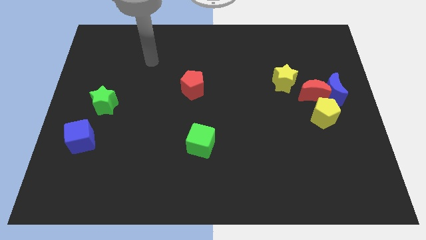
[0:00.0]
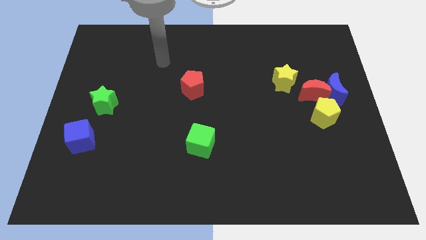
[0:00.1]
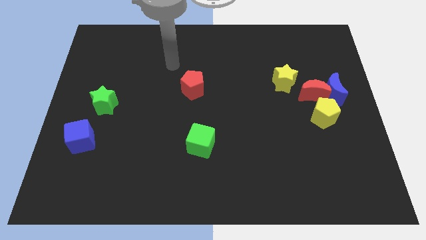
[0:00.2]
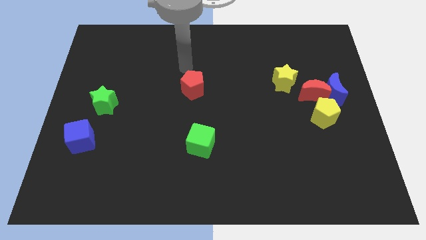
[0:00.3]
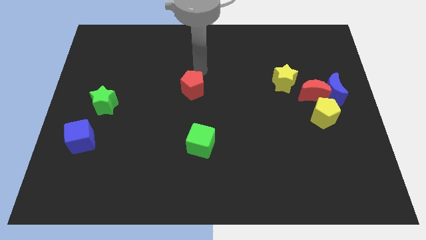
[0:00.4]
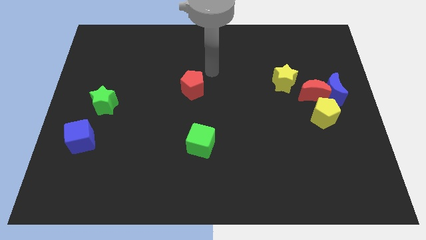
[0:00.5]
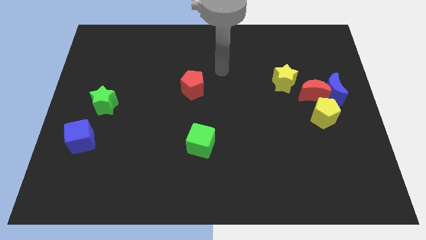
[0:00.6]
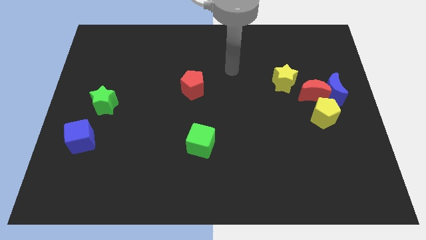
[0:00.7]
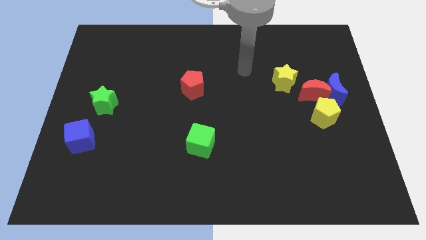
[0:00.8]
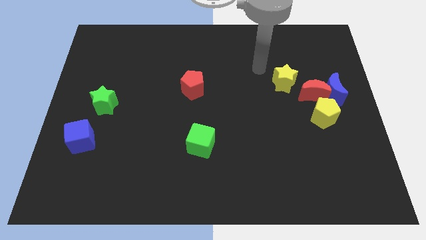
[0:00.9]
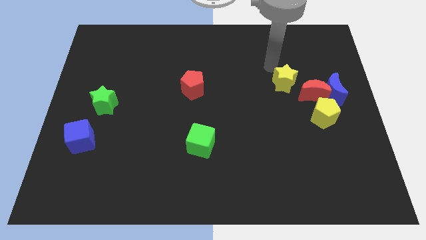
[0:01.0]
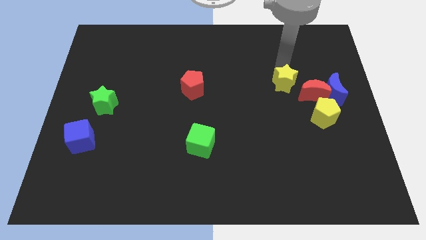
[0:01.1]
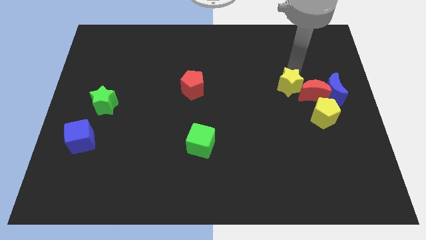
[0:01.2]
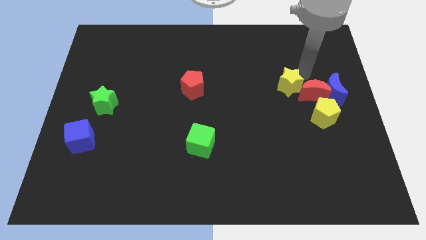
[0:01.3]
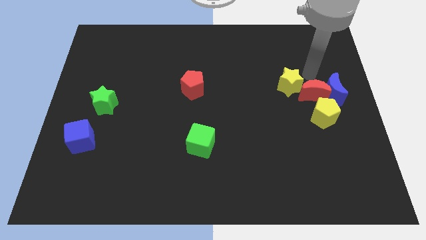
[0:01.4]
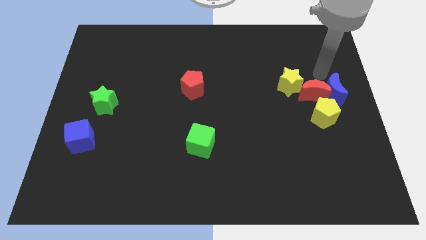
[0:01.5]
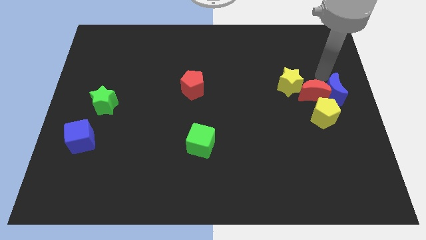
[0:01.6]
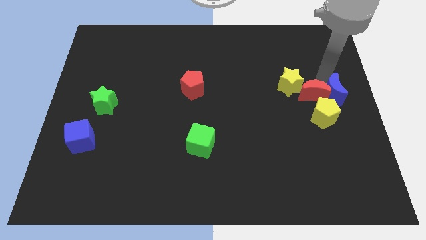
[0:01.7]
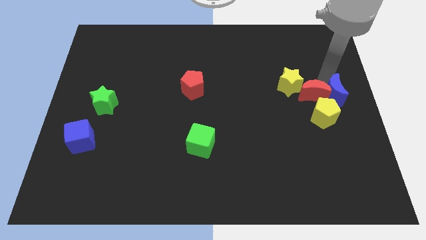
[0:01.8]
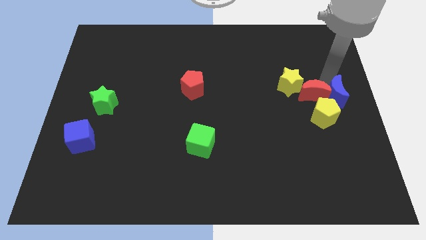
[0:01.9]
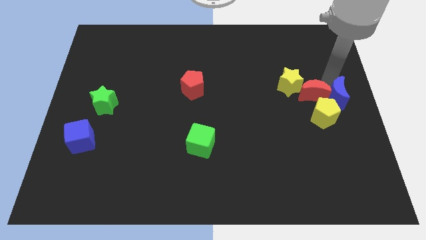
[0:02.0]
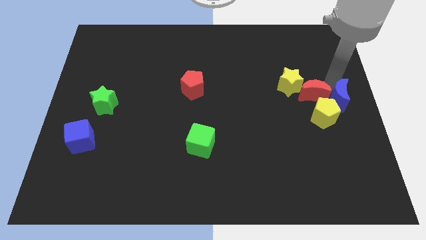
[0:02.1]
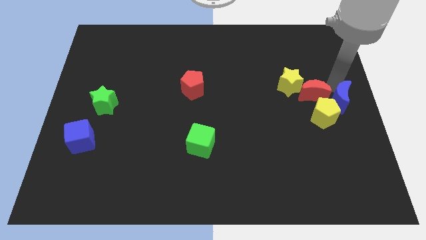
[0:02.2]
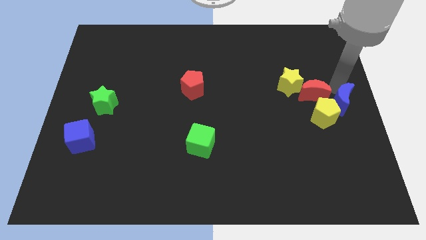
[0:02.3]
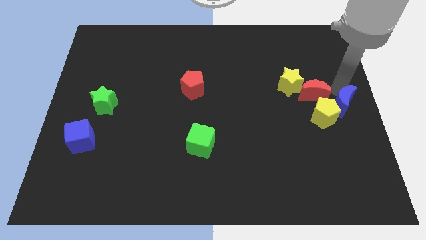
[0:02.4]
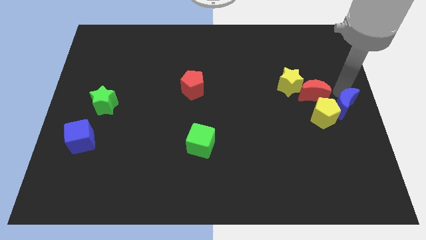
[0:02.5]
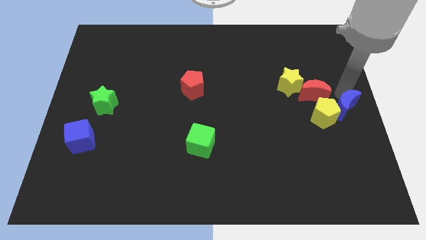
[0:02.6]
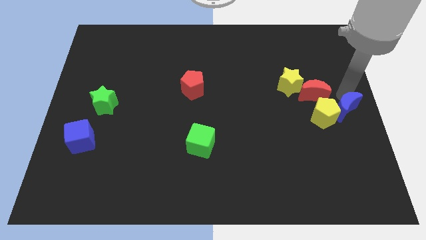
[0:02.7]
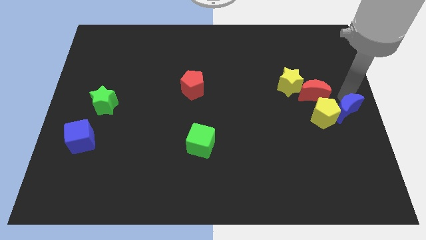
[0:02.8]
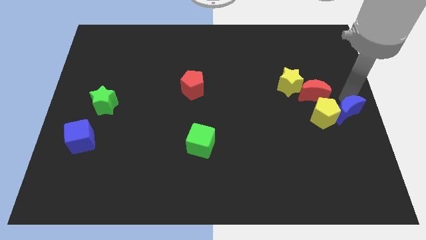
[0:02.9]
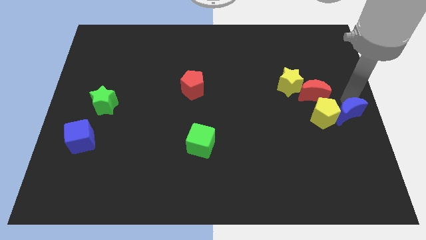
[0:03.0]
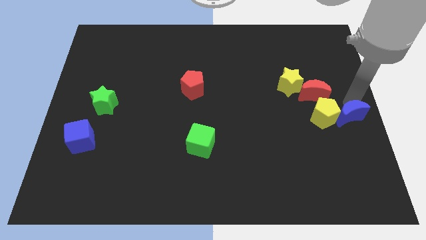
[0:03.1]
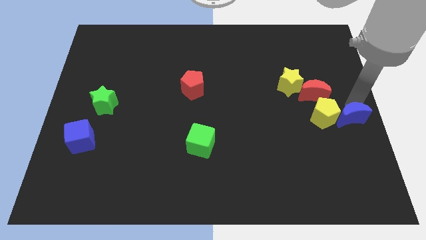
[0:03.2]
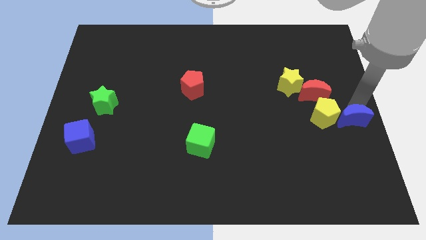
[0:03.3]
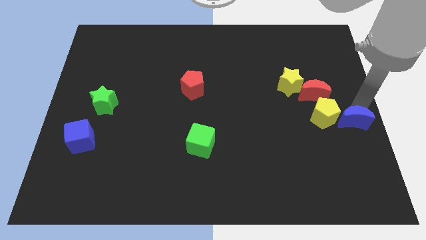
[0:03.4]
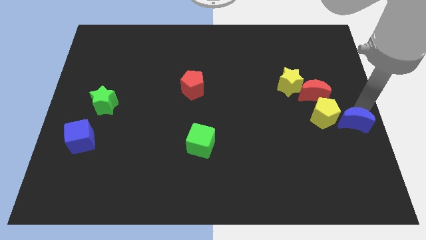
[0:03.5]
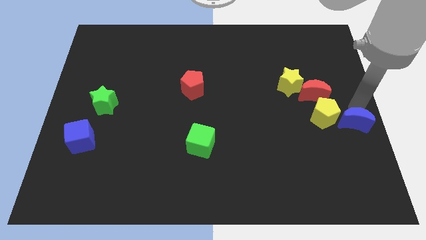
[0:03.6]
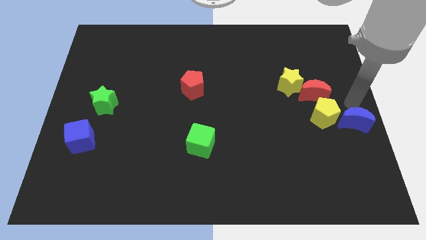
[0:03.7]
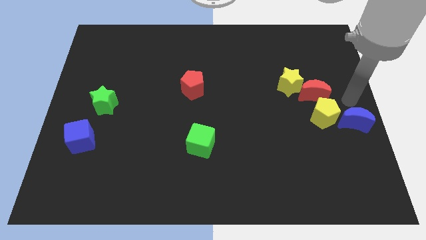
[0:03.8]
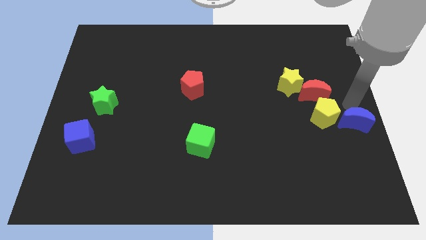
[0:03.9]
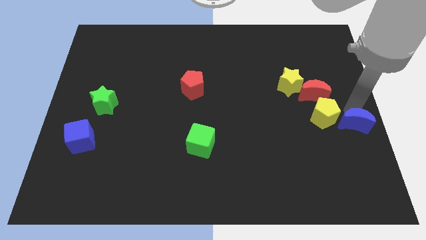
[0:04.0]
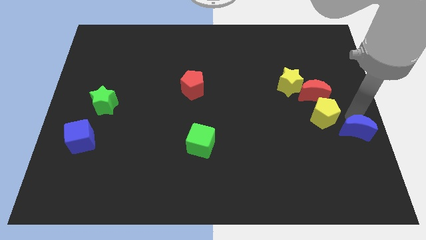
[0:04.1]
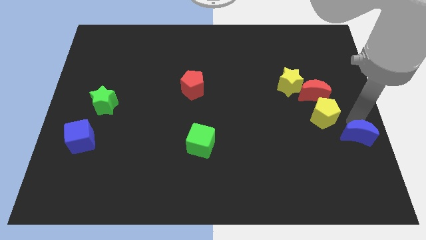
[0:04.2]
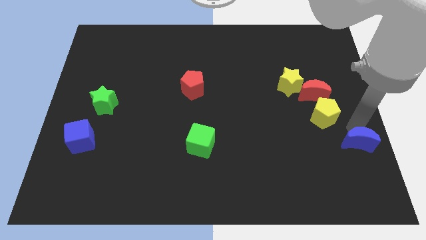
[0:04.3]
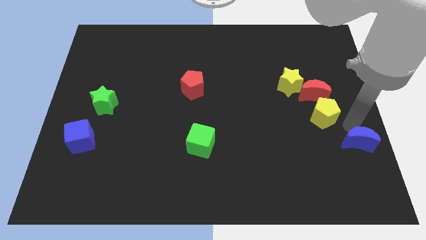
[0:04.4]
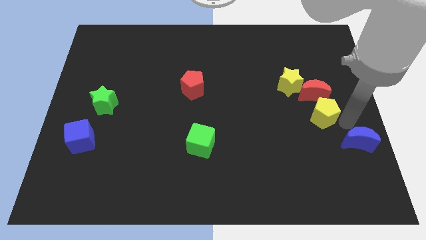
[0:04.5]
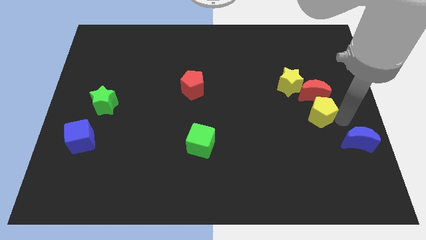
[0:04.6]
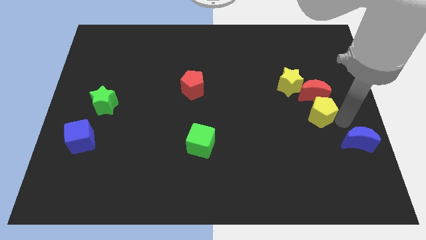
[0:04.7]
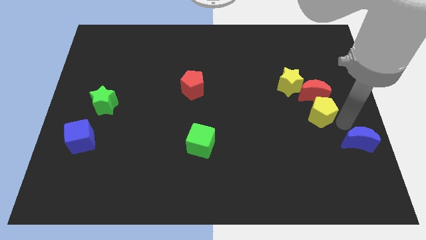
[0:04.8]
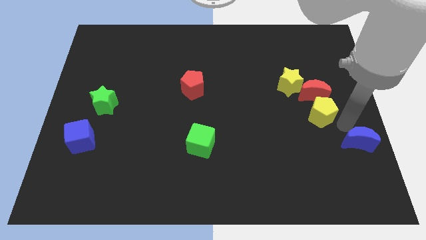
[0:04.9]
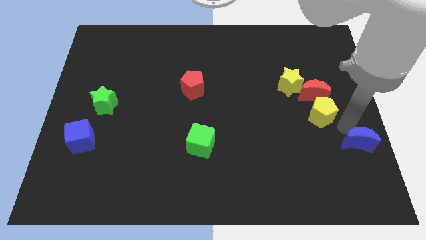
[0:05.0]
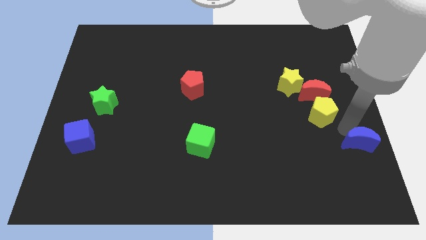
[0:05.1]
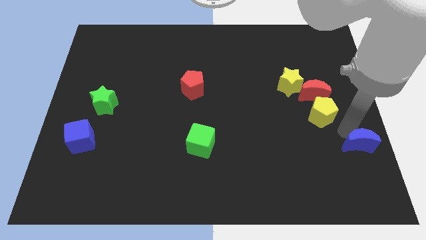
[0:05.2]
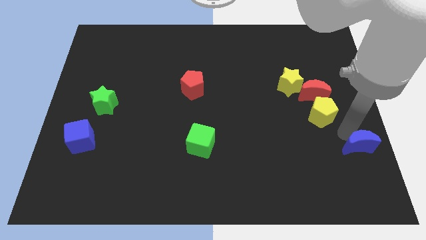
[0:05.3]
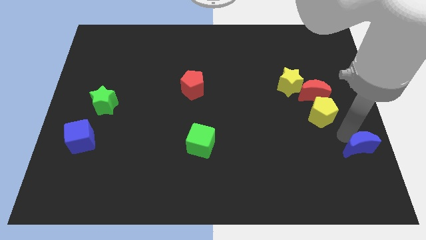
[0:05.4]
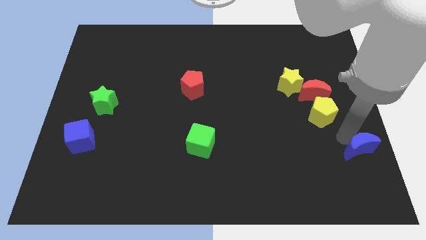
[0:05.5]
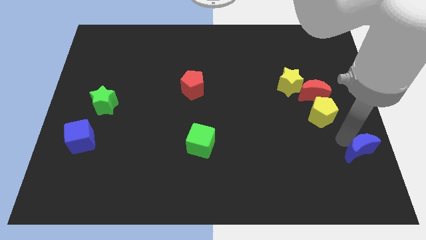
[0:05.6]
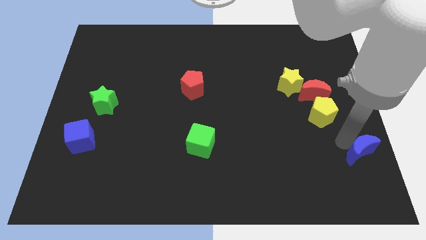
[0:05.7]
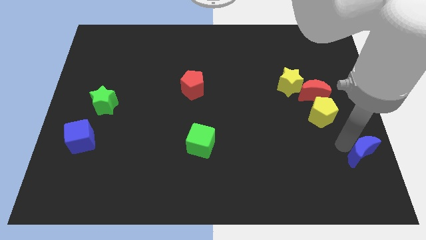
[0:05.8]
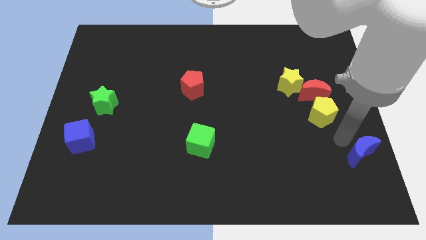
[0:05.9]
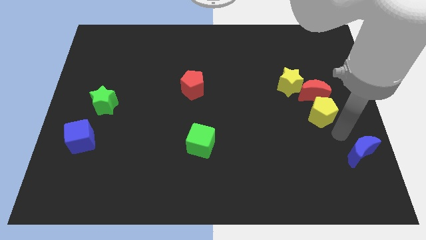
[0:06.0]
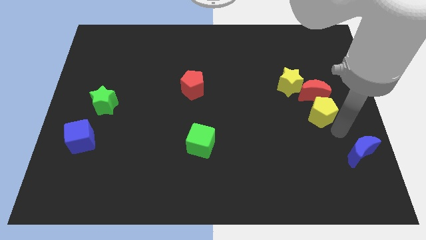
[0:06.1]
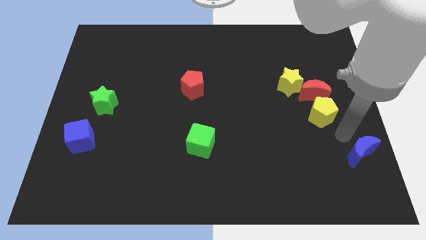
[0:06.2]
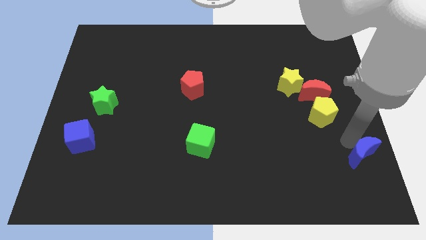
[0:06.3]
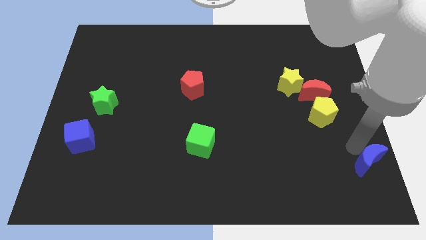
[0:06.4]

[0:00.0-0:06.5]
slide the blue moon to the lower right corner
